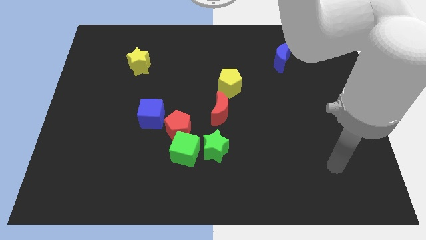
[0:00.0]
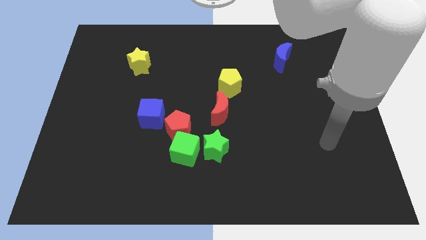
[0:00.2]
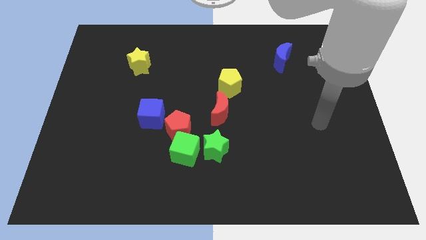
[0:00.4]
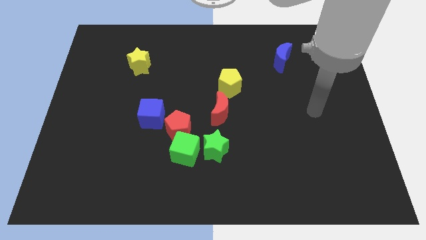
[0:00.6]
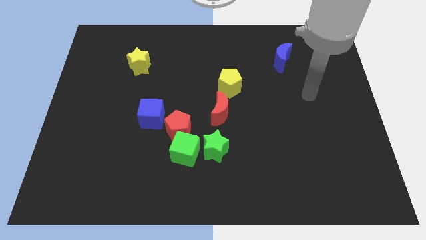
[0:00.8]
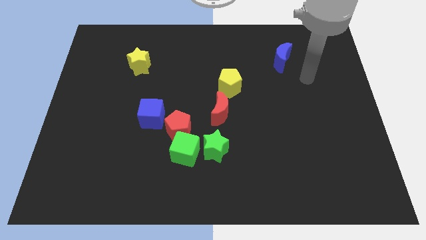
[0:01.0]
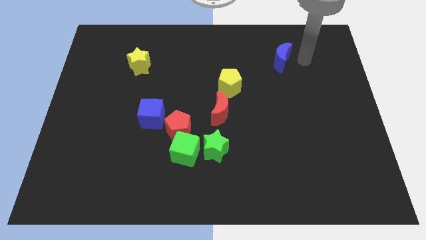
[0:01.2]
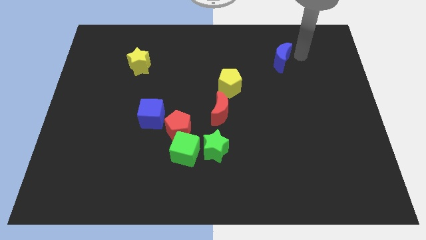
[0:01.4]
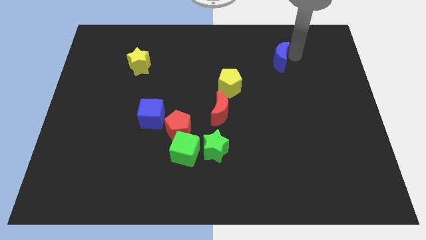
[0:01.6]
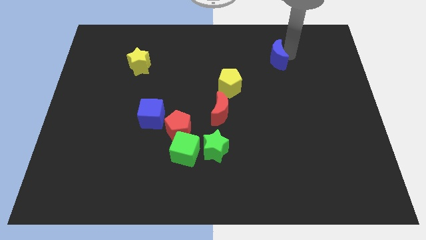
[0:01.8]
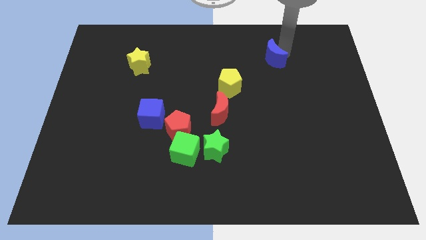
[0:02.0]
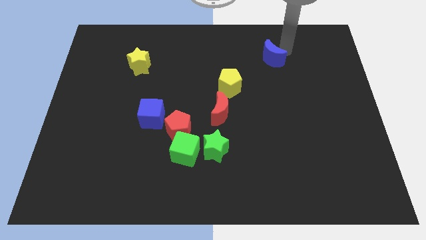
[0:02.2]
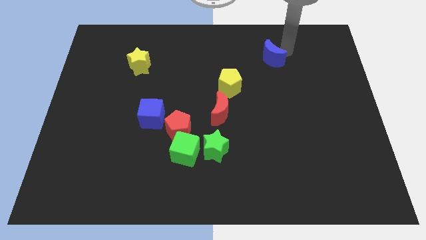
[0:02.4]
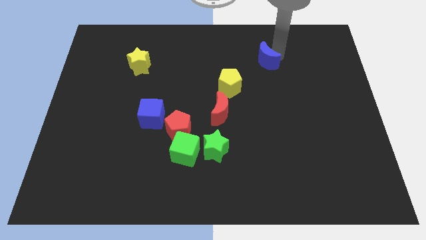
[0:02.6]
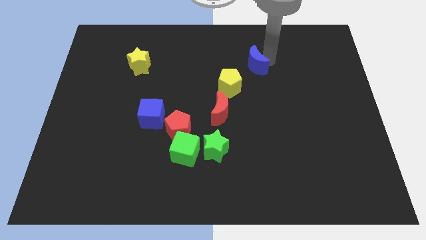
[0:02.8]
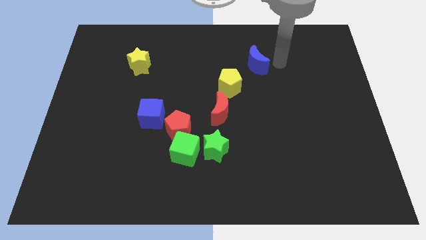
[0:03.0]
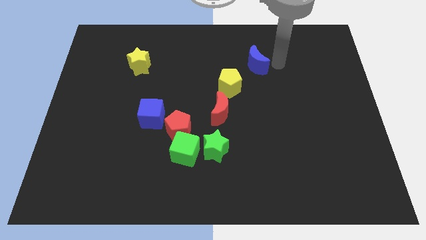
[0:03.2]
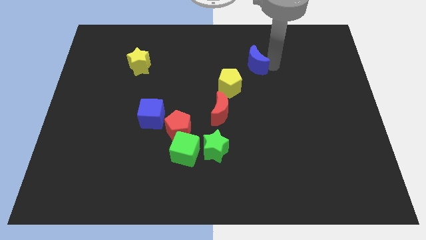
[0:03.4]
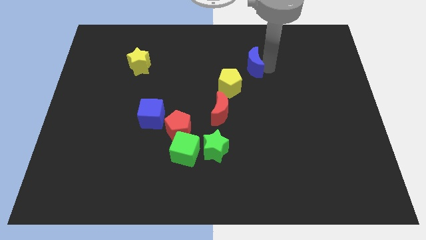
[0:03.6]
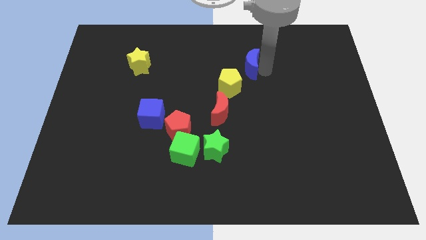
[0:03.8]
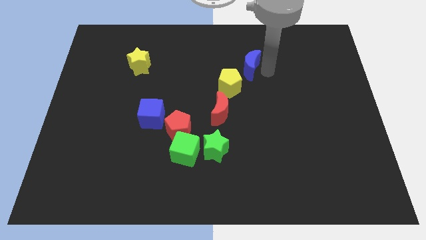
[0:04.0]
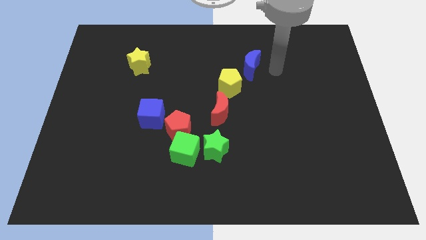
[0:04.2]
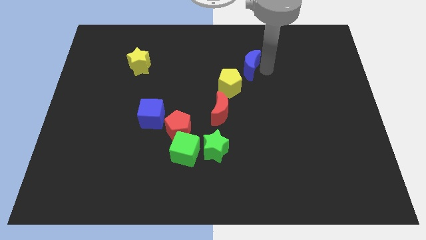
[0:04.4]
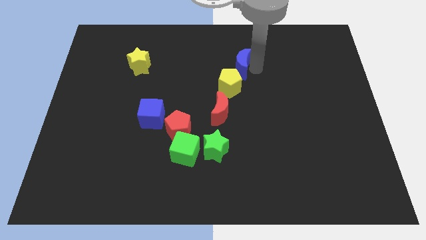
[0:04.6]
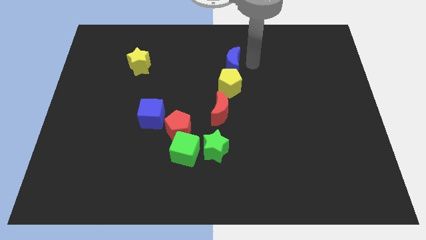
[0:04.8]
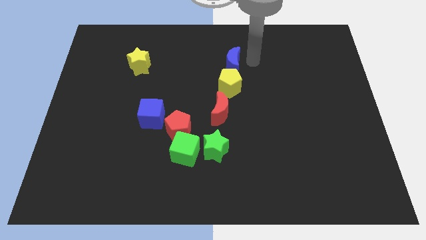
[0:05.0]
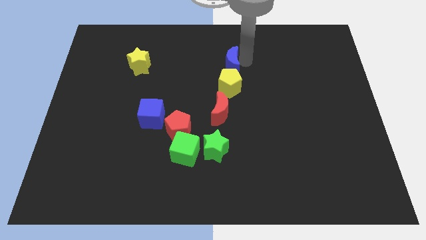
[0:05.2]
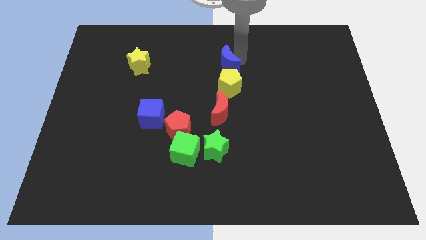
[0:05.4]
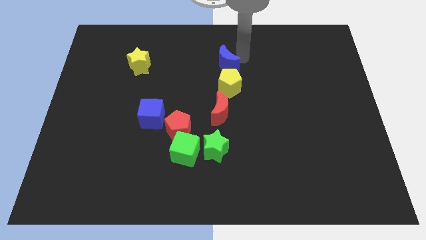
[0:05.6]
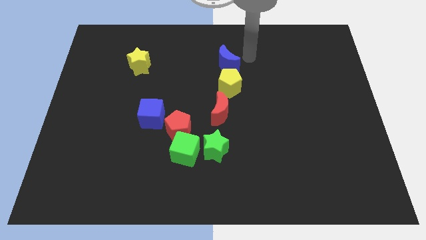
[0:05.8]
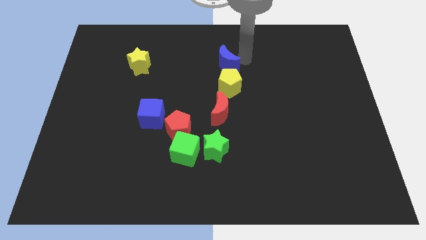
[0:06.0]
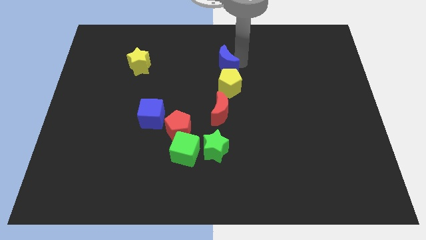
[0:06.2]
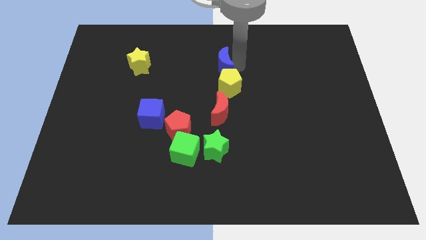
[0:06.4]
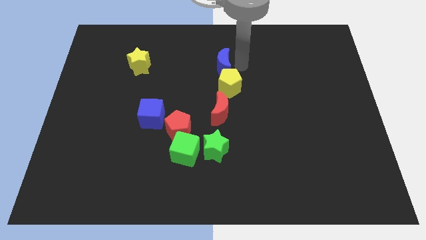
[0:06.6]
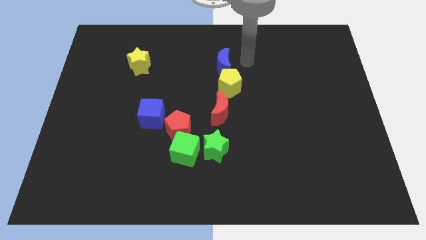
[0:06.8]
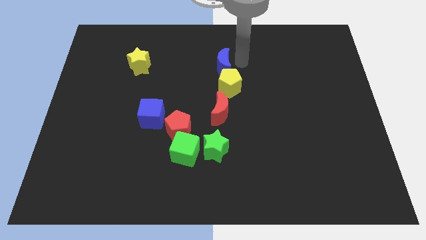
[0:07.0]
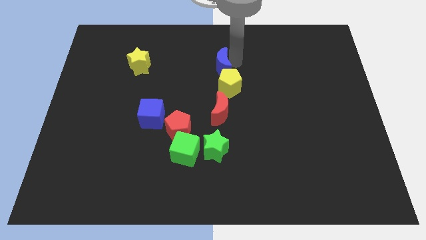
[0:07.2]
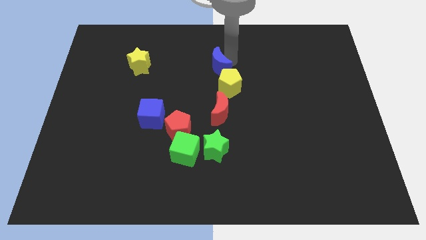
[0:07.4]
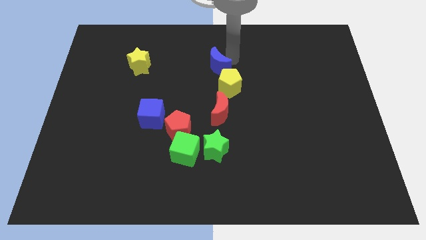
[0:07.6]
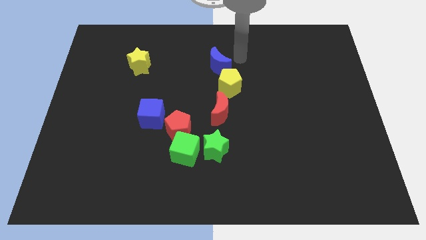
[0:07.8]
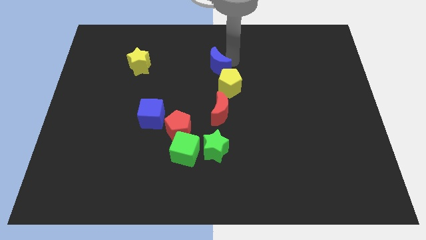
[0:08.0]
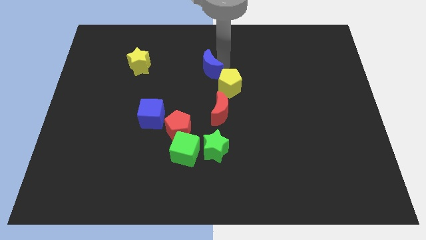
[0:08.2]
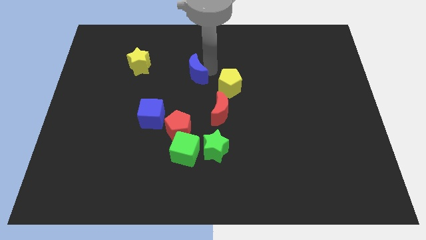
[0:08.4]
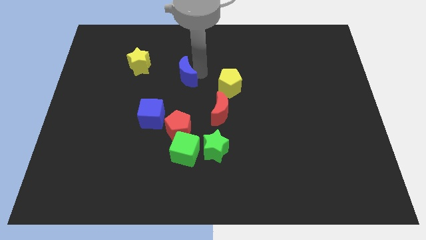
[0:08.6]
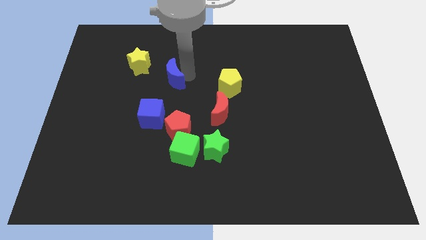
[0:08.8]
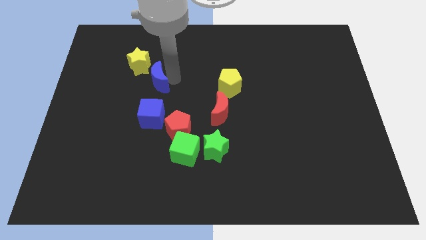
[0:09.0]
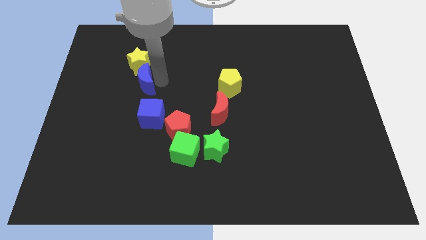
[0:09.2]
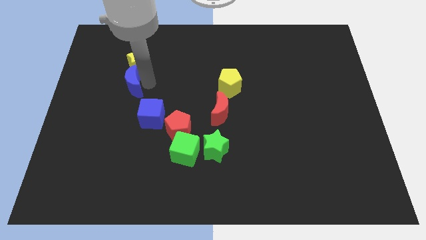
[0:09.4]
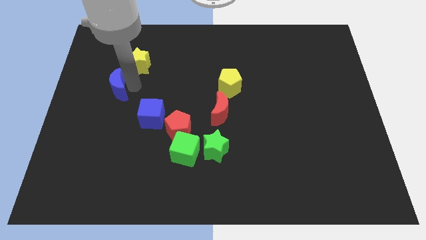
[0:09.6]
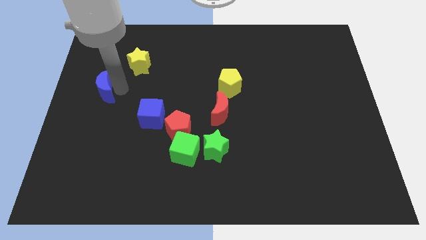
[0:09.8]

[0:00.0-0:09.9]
move the blue moon to the left side

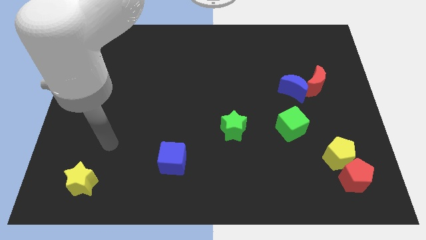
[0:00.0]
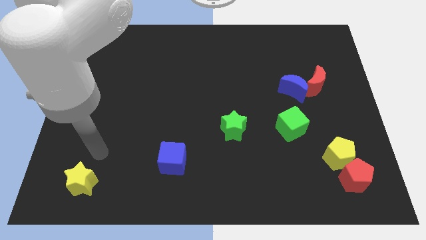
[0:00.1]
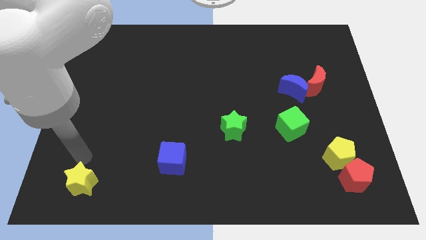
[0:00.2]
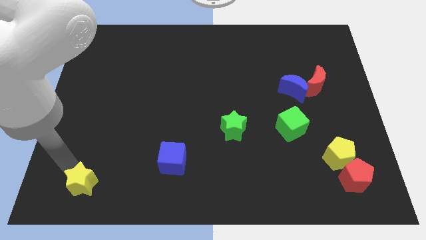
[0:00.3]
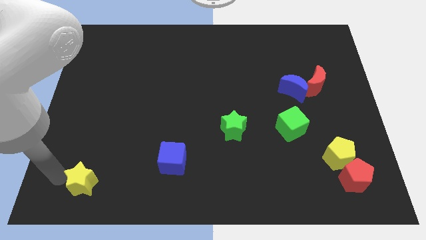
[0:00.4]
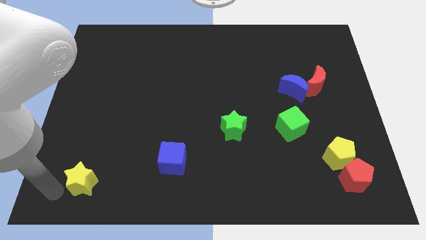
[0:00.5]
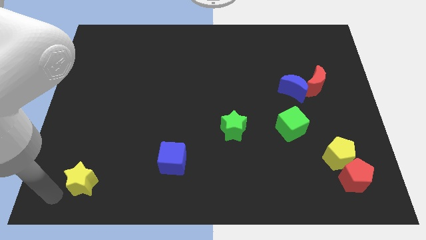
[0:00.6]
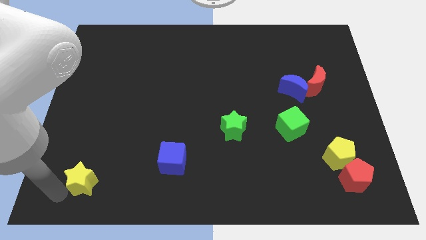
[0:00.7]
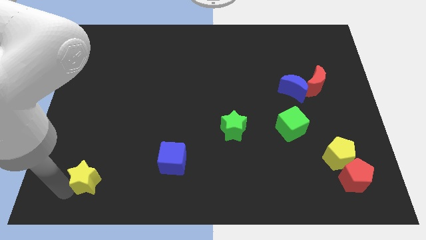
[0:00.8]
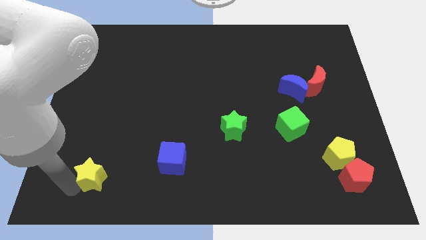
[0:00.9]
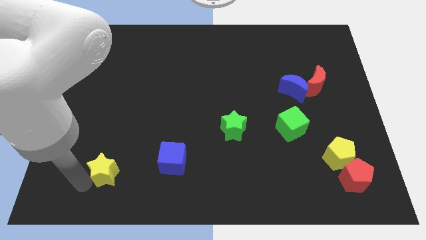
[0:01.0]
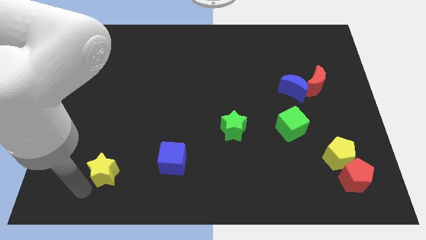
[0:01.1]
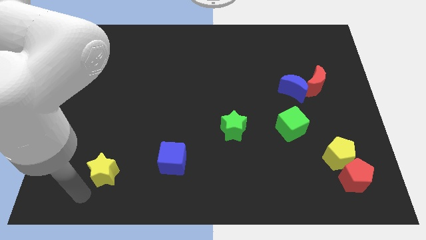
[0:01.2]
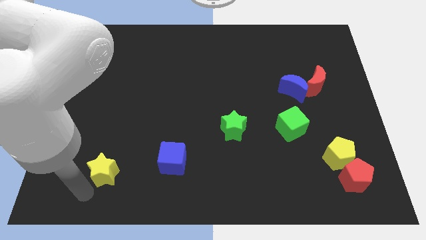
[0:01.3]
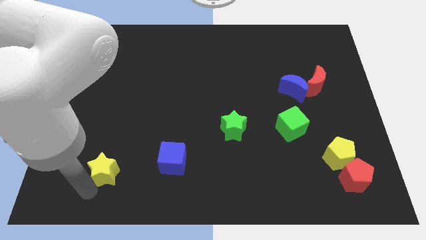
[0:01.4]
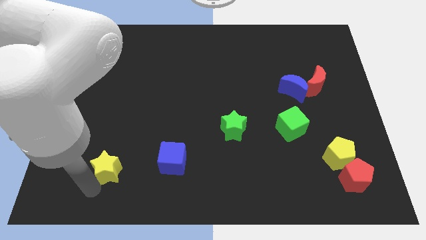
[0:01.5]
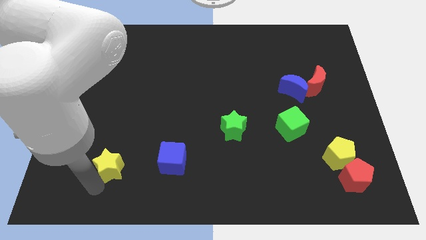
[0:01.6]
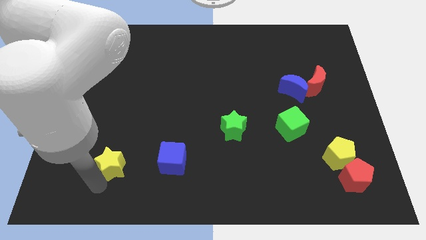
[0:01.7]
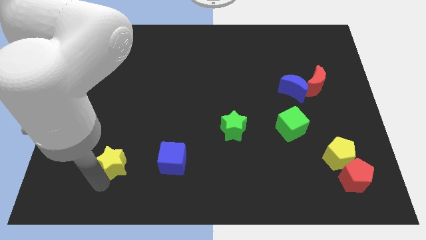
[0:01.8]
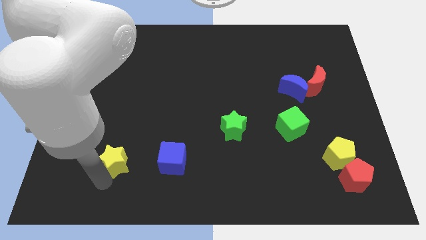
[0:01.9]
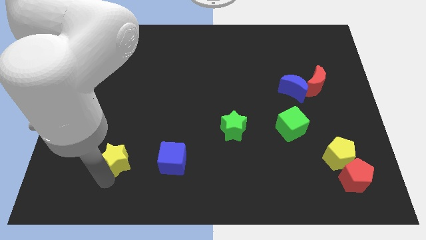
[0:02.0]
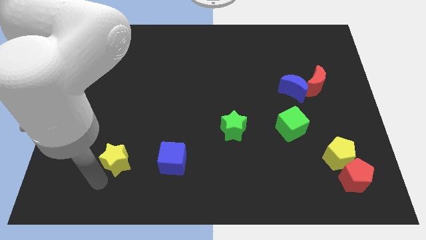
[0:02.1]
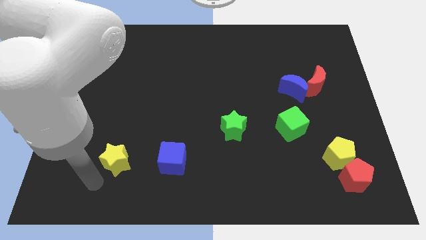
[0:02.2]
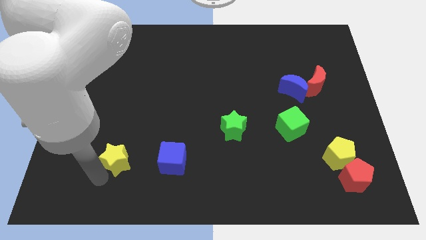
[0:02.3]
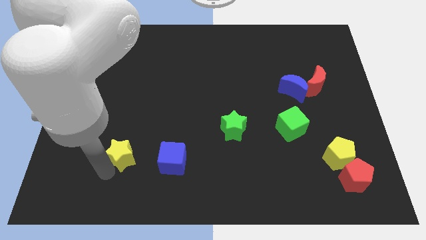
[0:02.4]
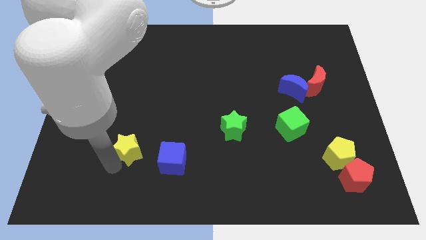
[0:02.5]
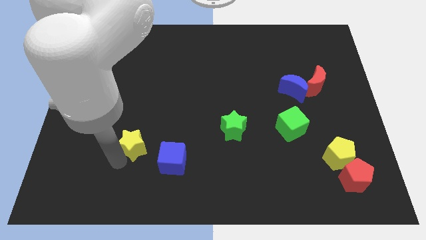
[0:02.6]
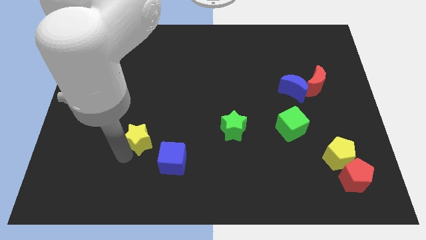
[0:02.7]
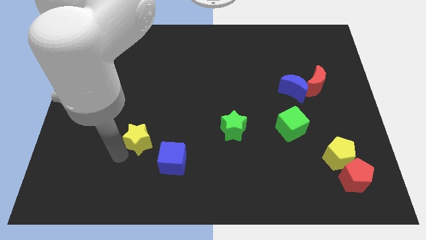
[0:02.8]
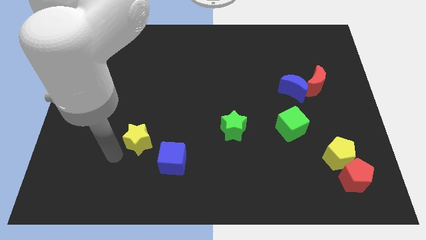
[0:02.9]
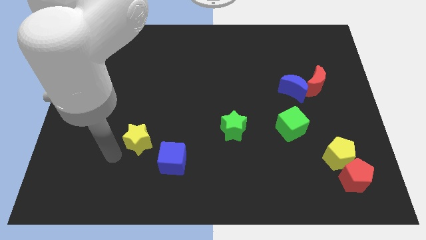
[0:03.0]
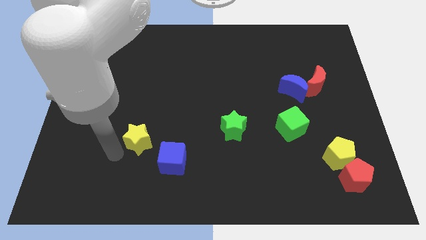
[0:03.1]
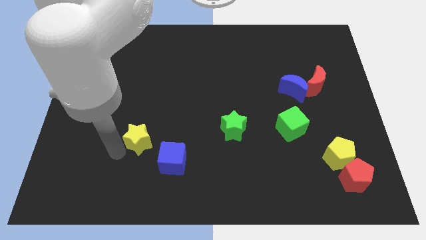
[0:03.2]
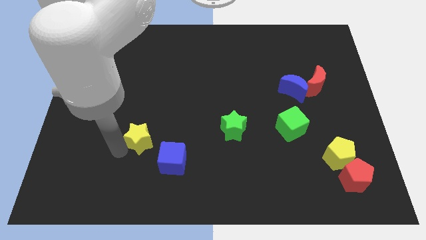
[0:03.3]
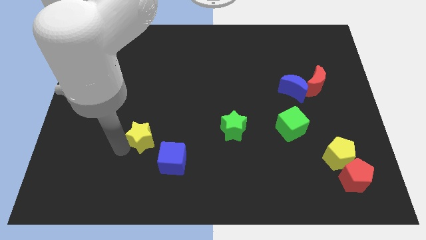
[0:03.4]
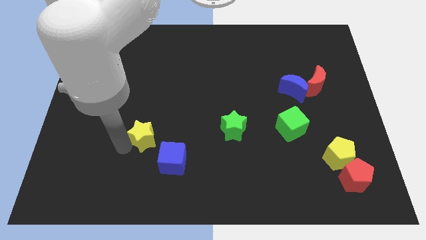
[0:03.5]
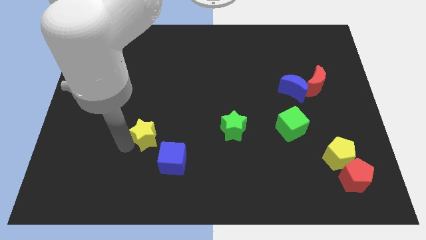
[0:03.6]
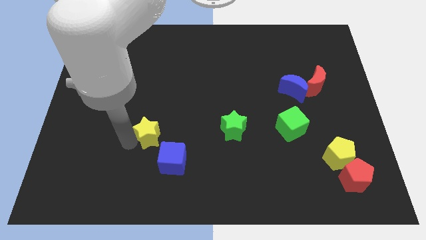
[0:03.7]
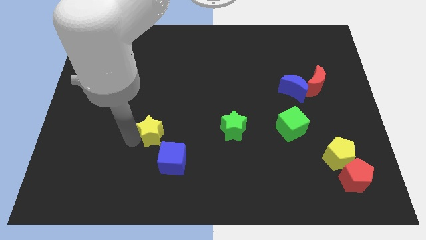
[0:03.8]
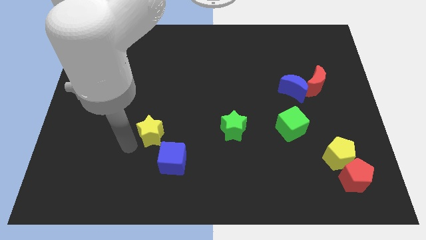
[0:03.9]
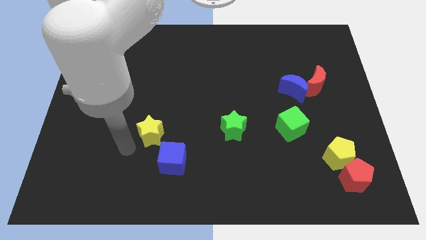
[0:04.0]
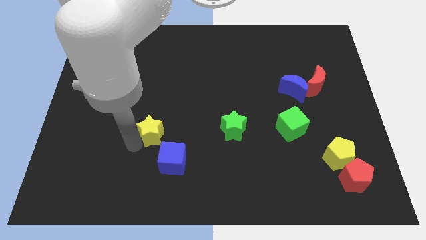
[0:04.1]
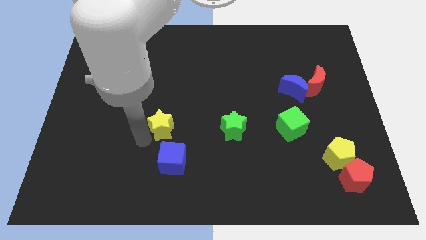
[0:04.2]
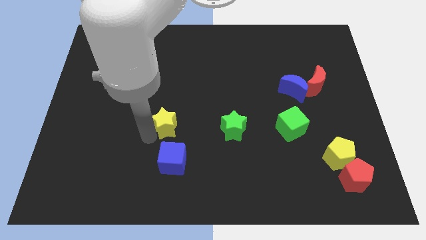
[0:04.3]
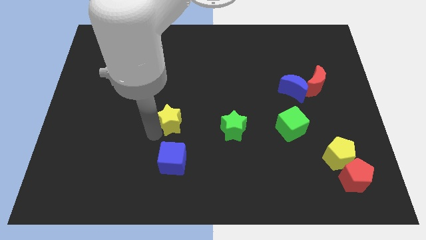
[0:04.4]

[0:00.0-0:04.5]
push the yellow star to the center of the board
